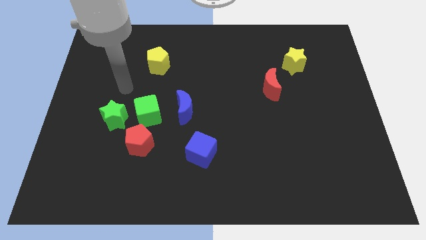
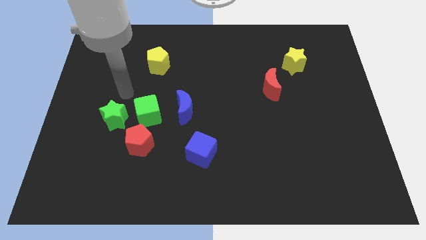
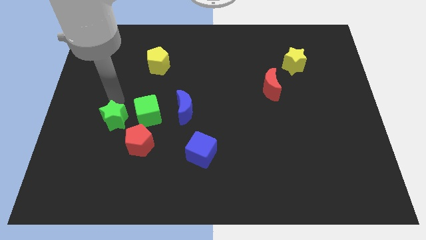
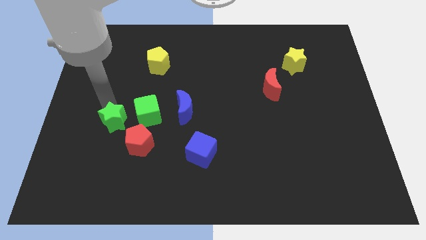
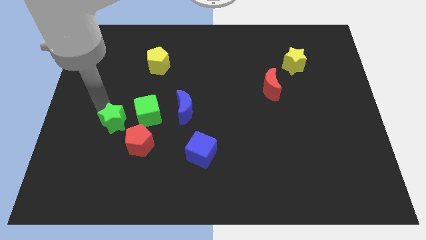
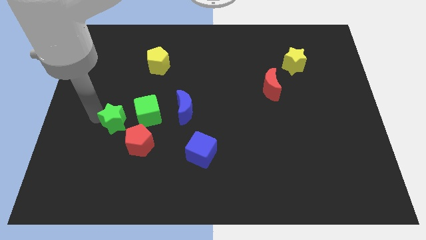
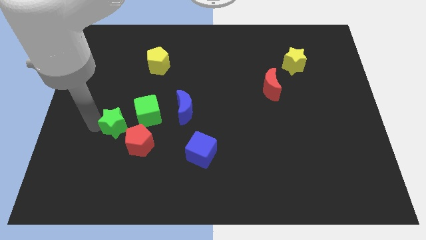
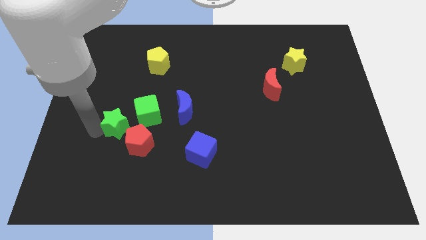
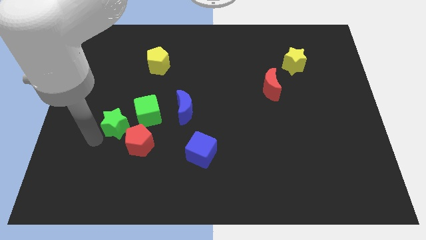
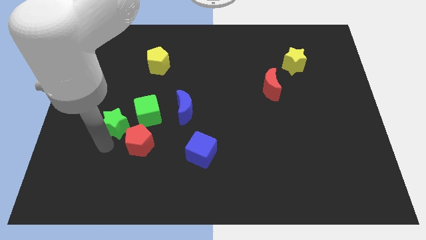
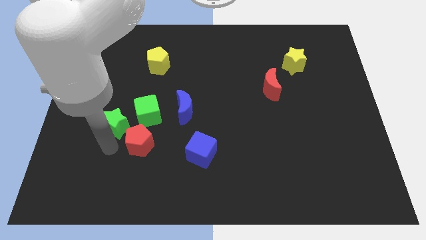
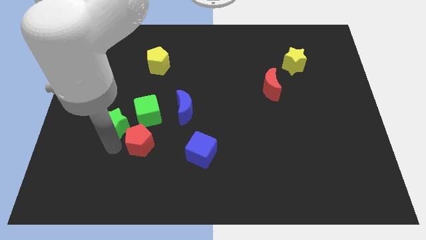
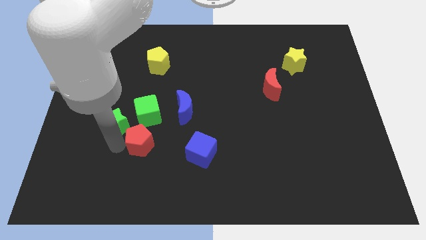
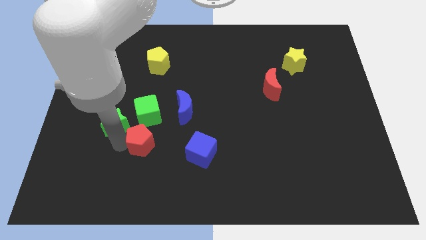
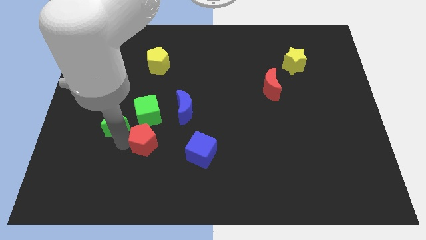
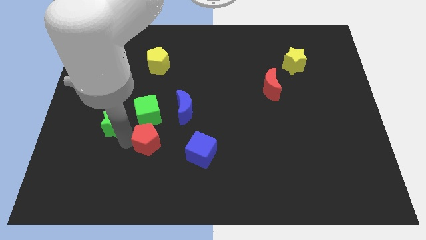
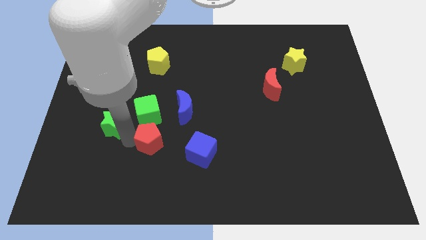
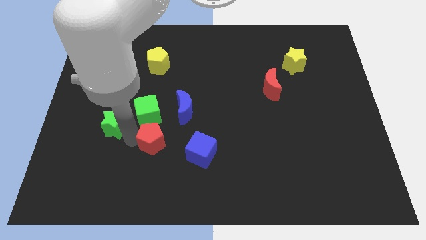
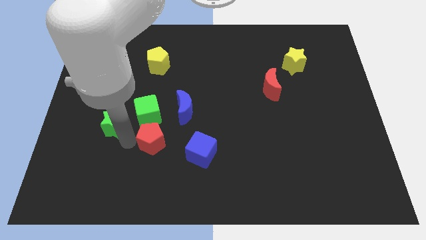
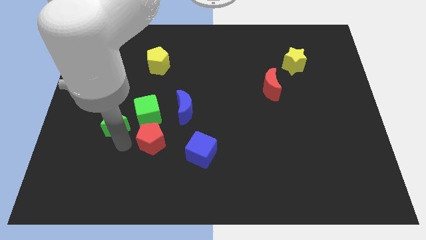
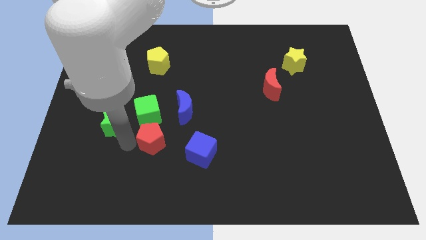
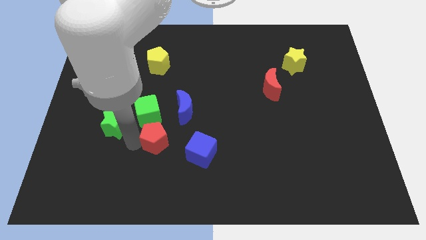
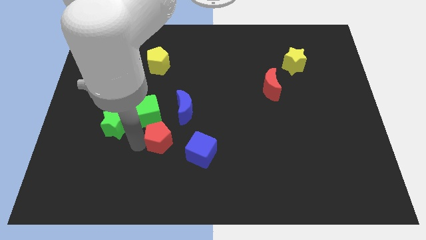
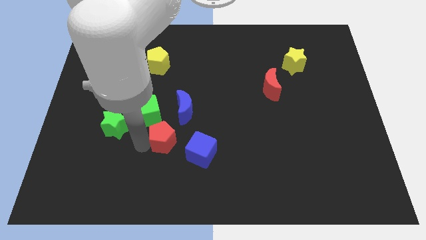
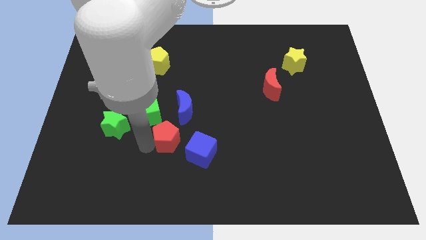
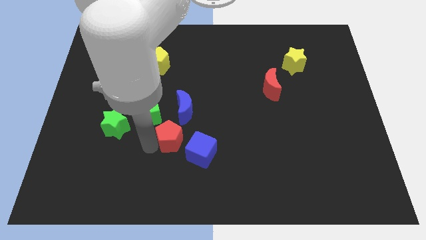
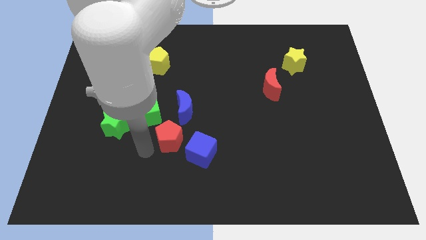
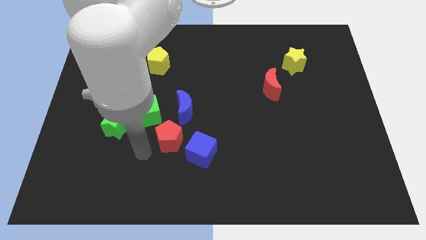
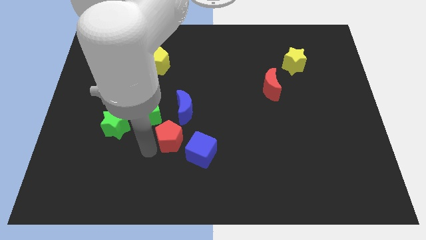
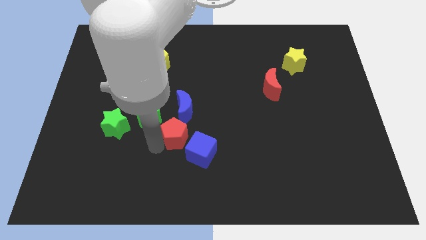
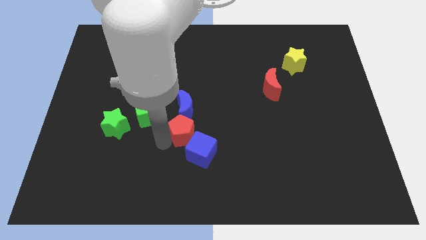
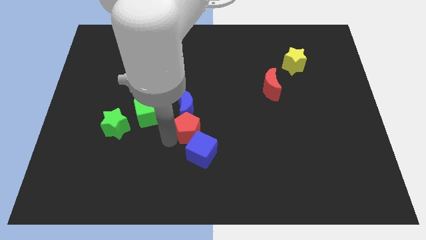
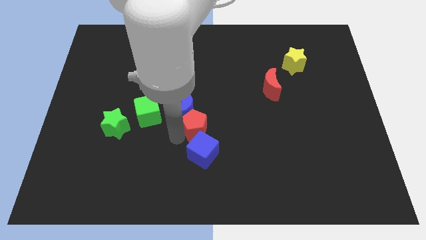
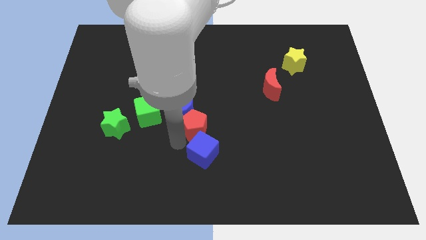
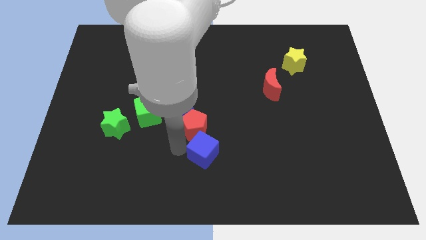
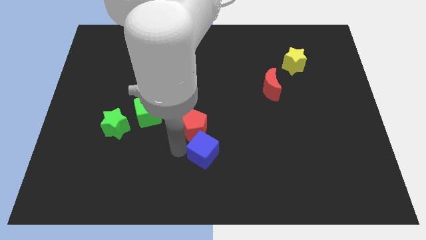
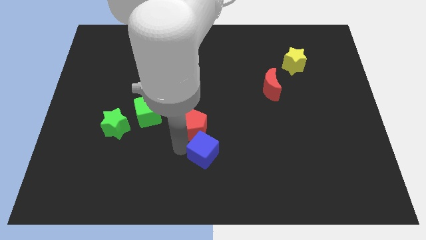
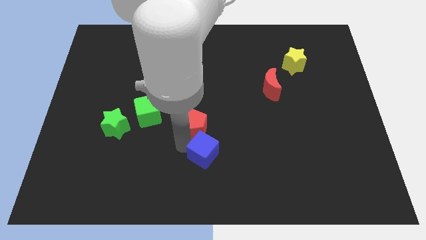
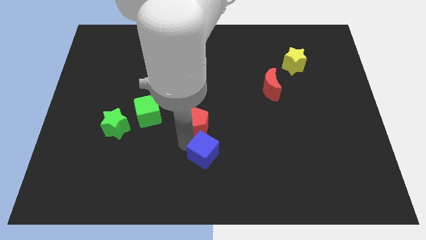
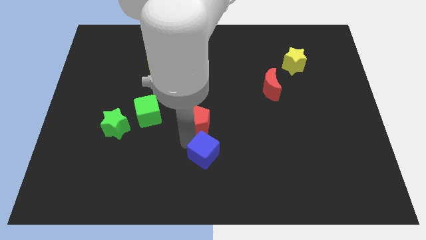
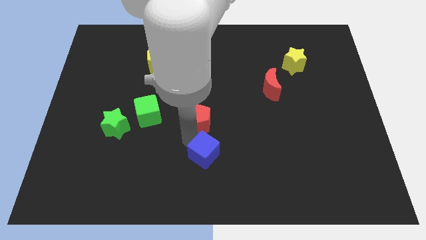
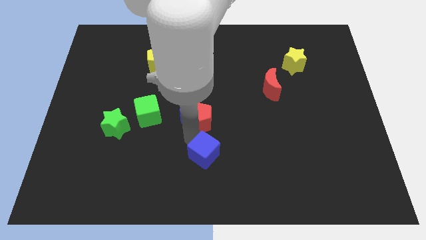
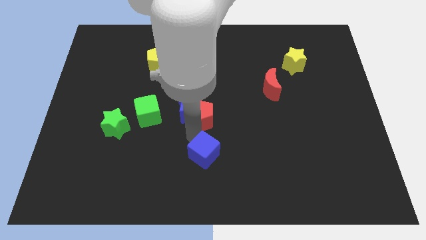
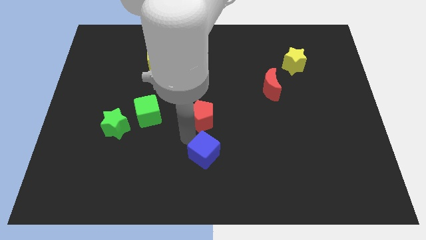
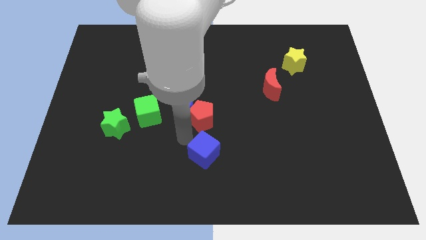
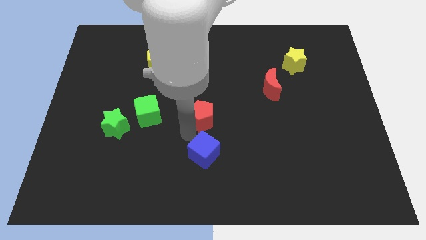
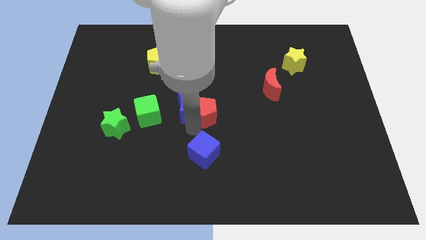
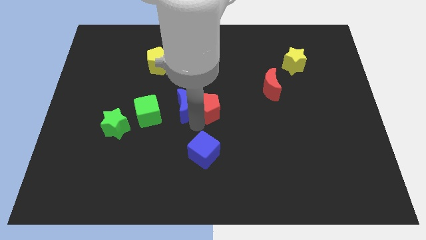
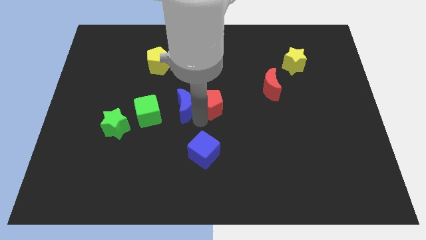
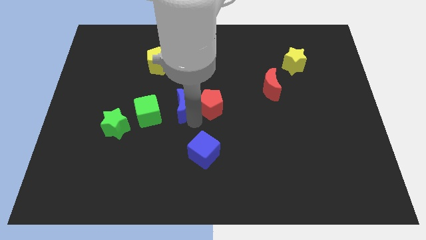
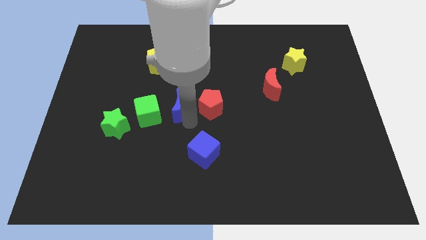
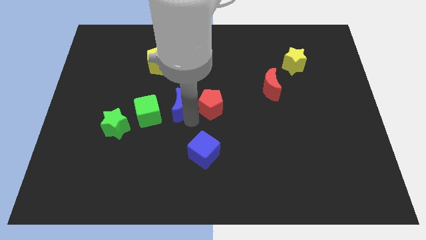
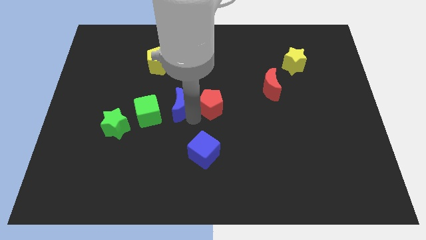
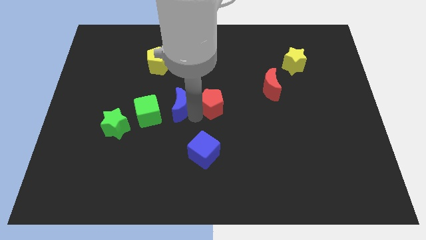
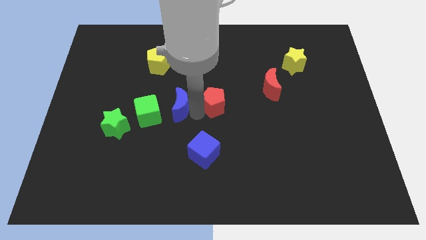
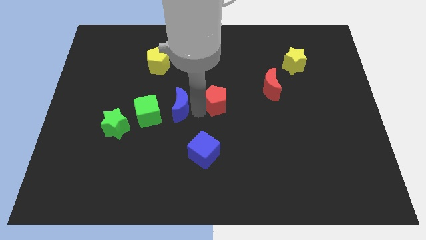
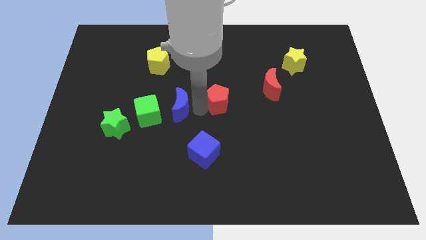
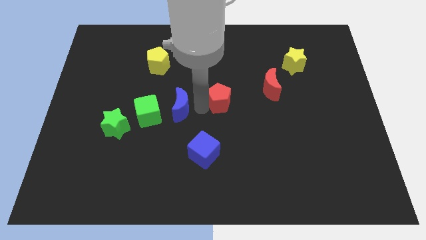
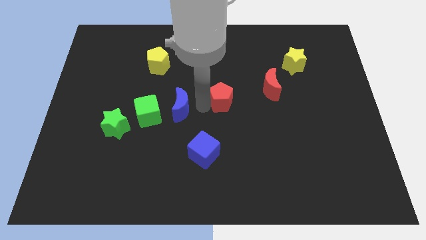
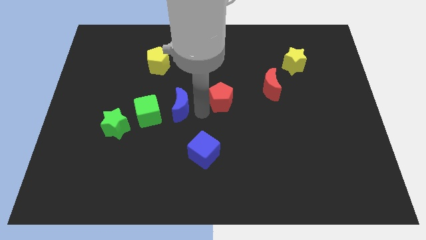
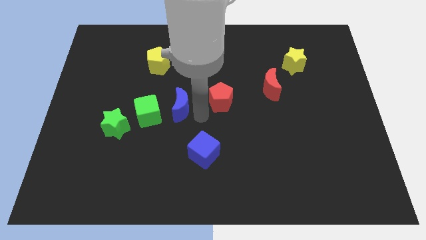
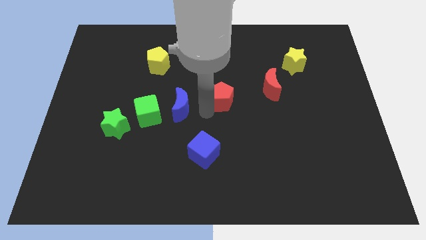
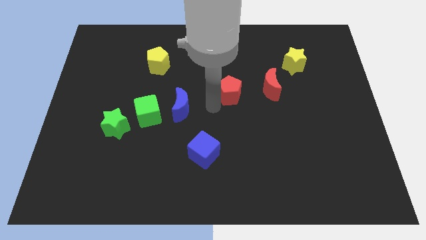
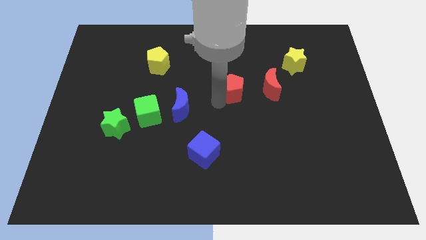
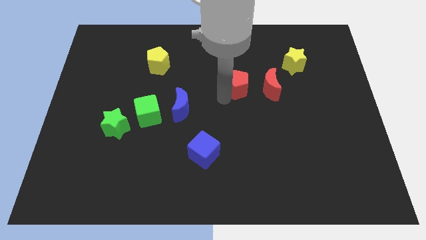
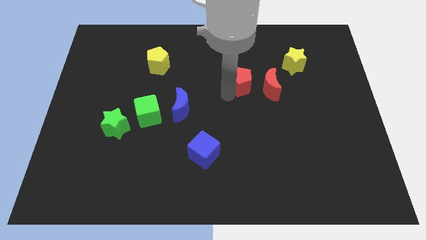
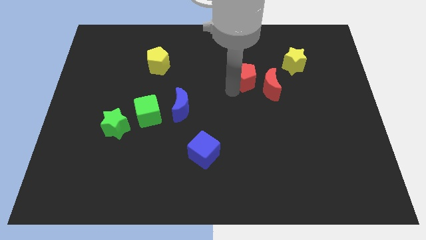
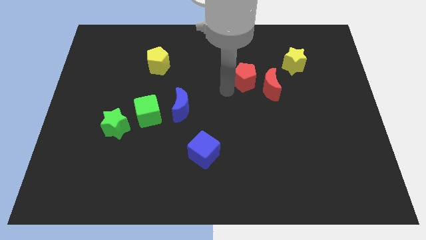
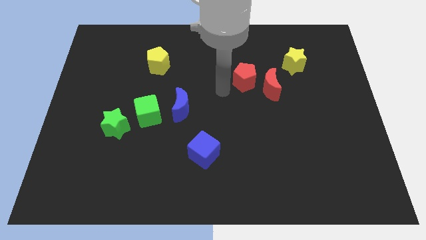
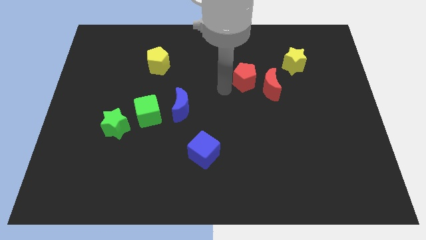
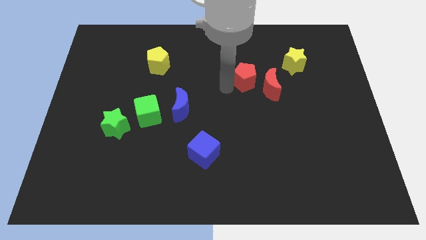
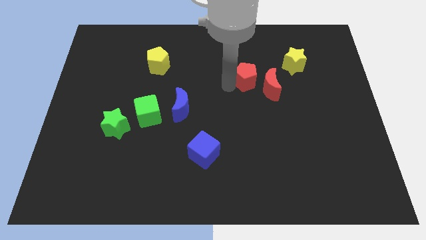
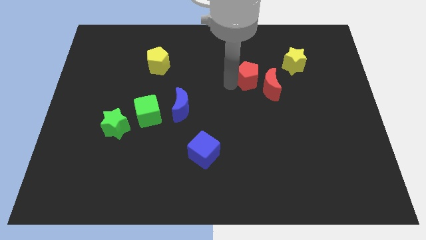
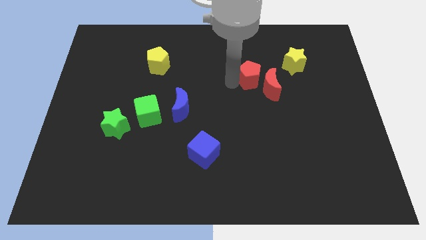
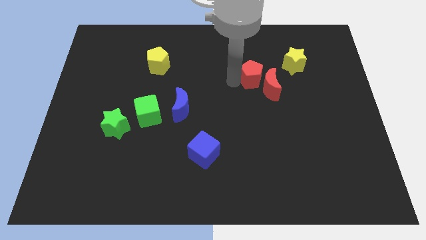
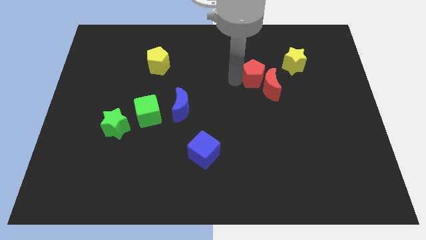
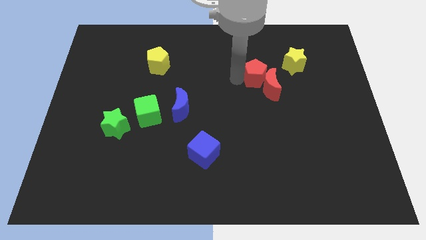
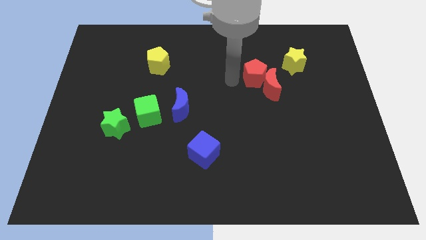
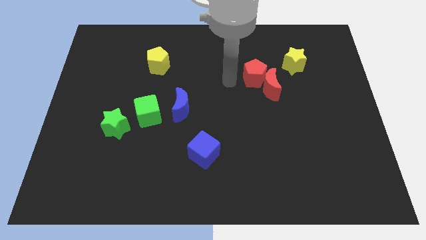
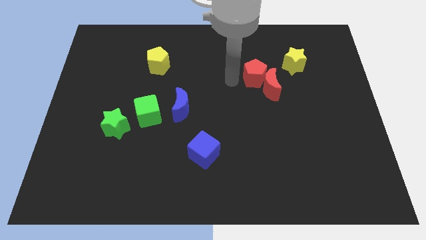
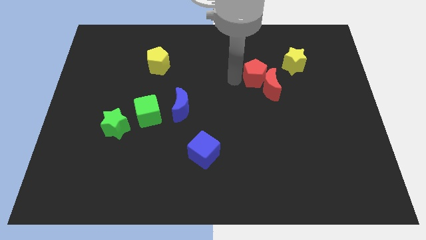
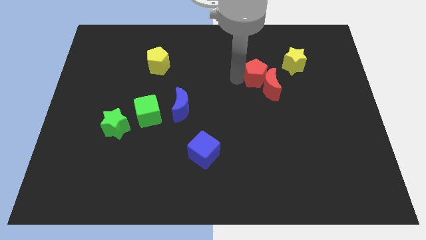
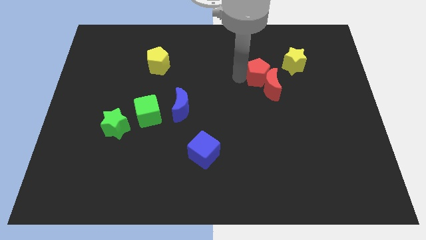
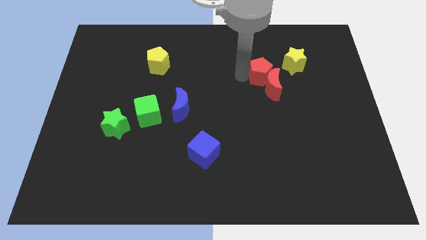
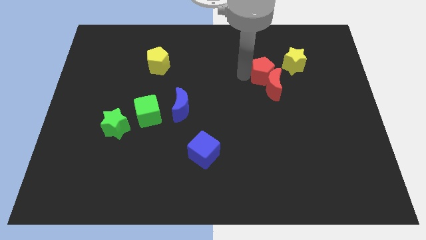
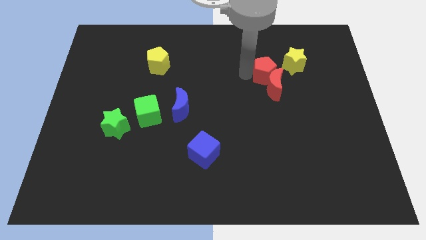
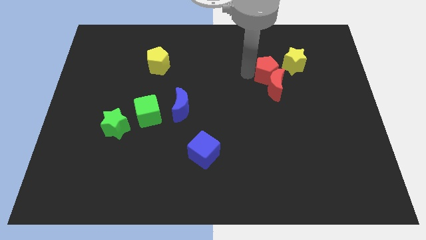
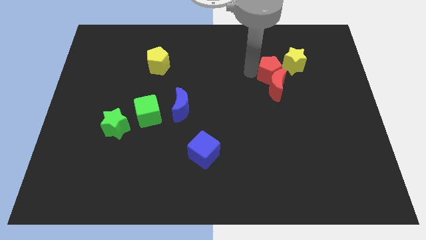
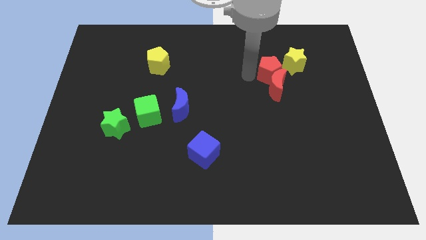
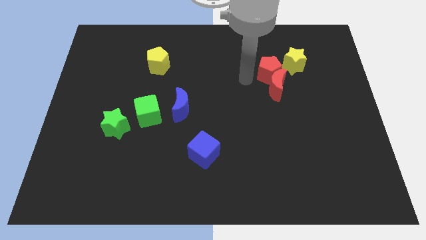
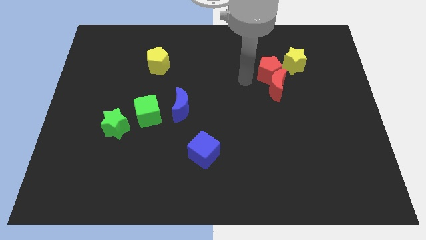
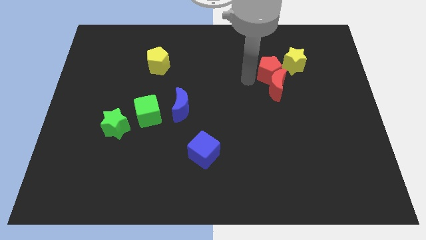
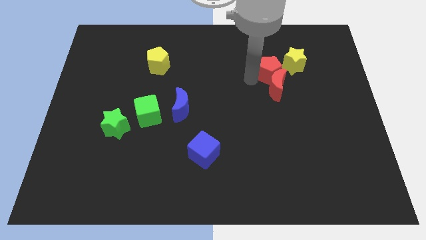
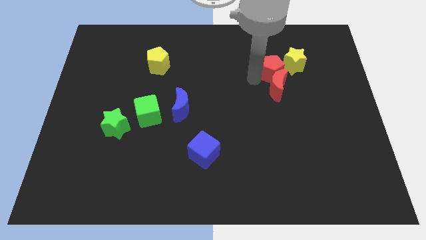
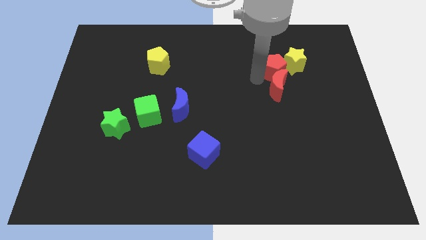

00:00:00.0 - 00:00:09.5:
move the red pentagon close to the yellow star
